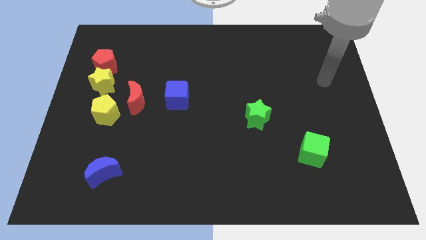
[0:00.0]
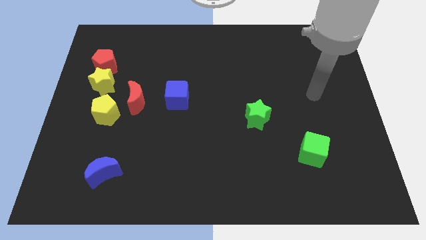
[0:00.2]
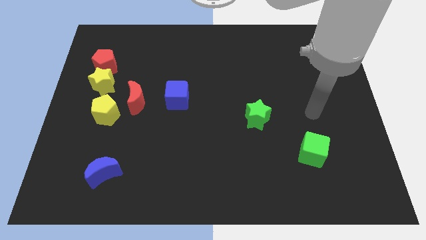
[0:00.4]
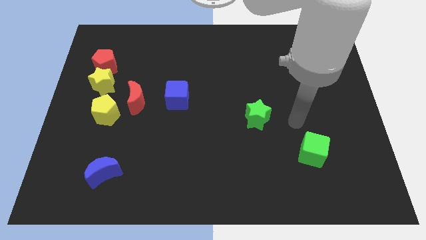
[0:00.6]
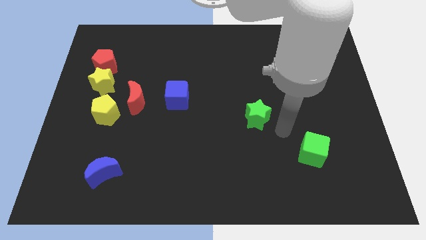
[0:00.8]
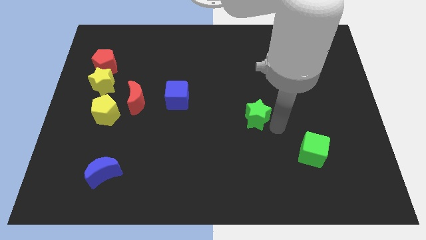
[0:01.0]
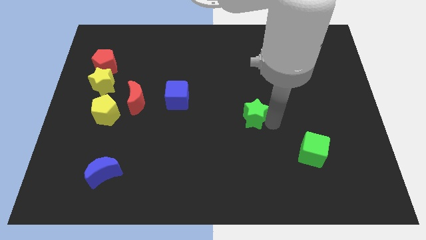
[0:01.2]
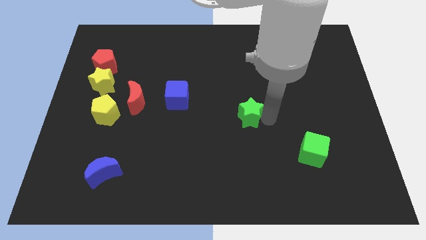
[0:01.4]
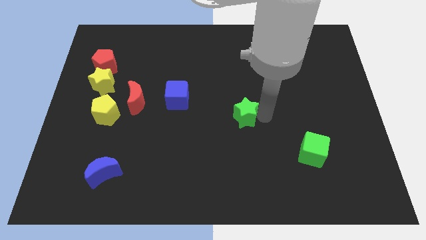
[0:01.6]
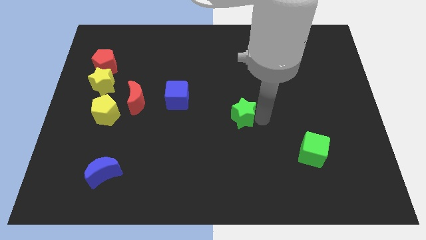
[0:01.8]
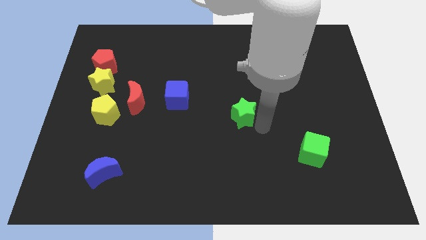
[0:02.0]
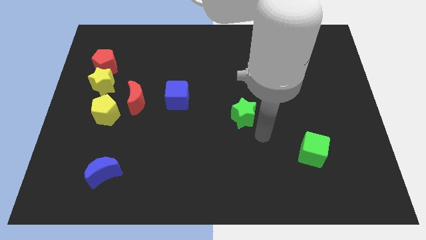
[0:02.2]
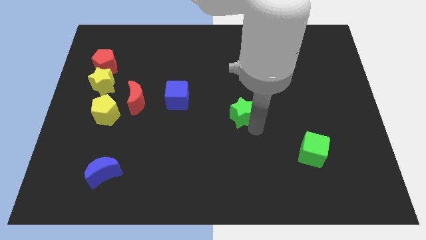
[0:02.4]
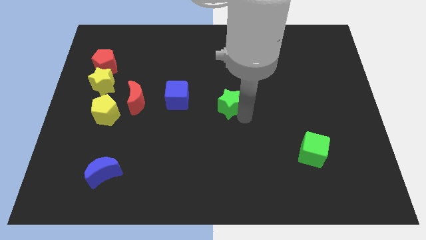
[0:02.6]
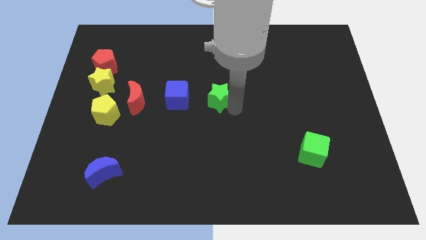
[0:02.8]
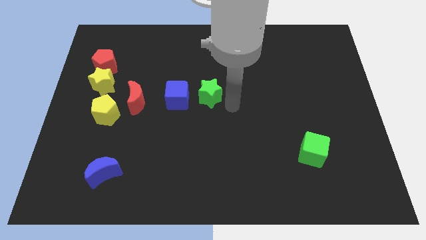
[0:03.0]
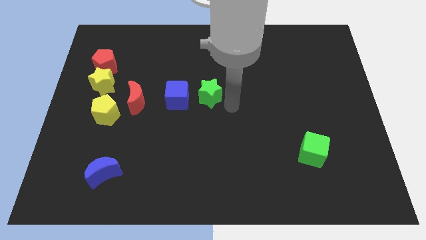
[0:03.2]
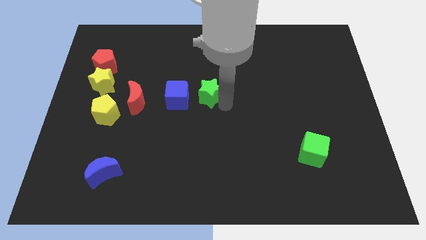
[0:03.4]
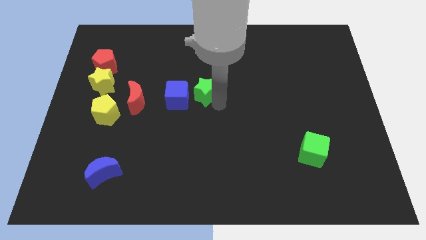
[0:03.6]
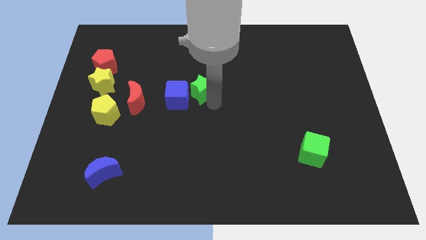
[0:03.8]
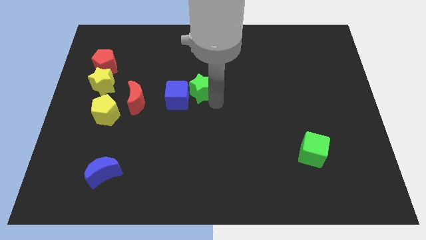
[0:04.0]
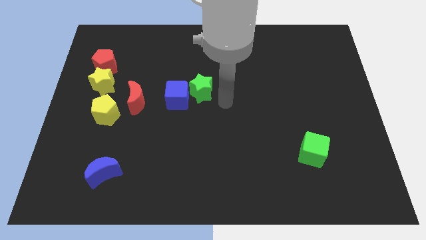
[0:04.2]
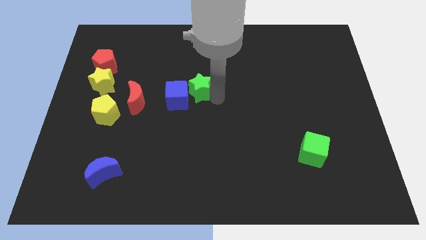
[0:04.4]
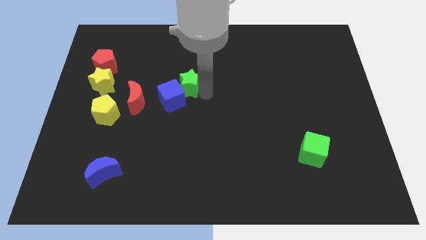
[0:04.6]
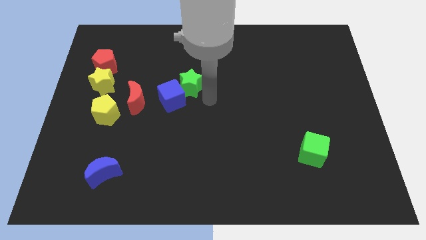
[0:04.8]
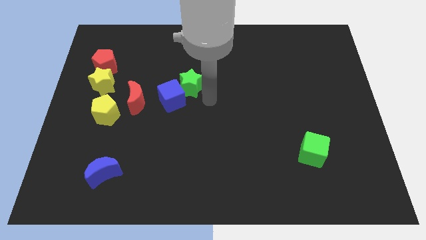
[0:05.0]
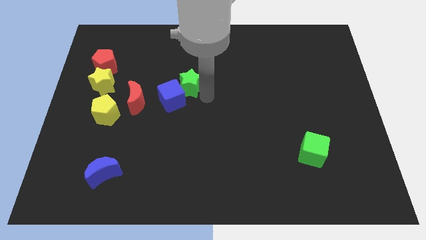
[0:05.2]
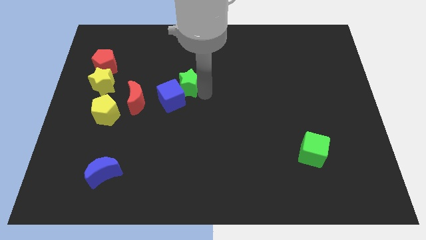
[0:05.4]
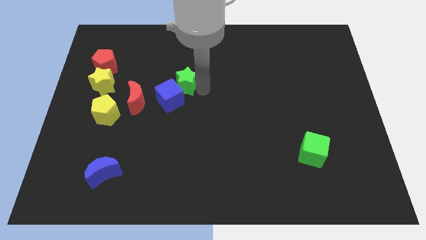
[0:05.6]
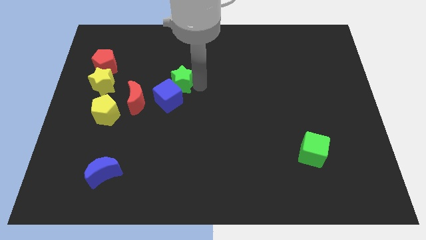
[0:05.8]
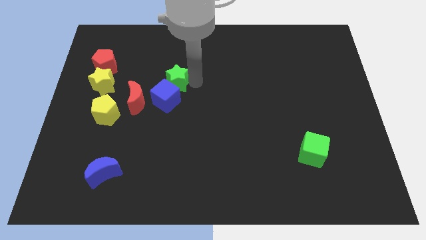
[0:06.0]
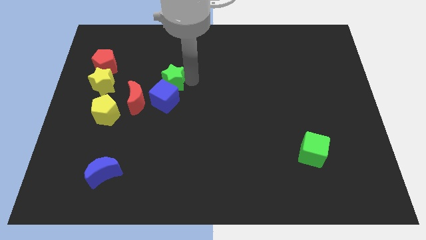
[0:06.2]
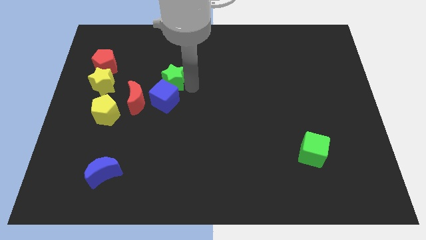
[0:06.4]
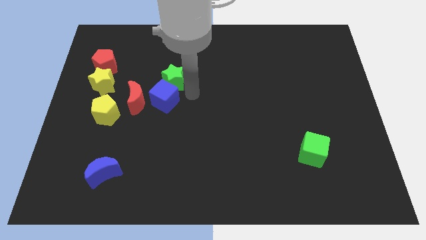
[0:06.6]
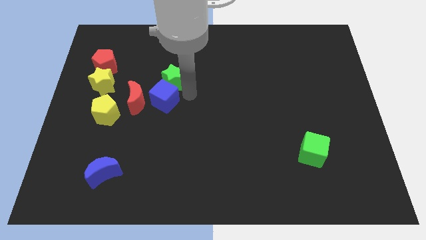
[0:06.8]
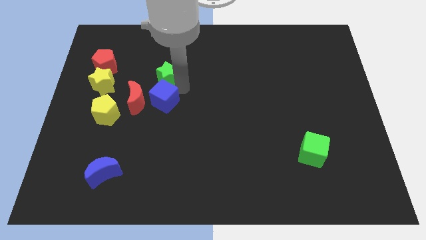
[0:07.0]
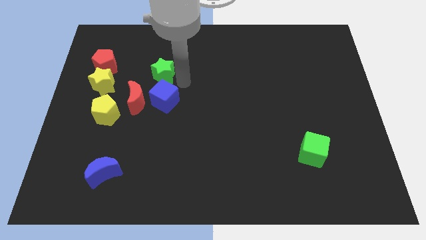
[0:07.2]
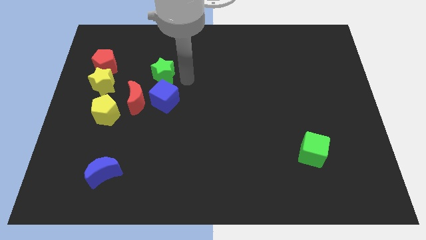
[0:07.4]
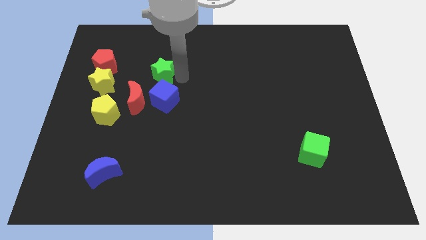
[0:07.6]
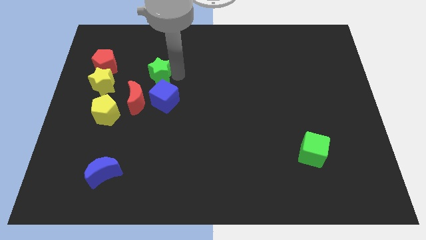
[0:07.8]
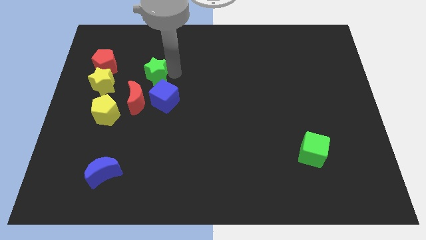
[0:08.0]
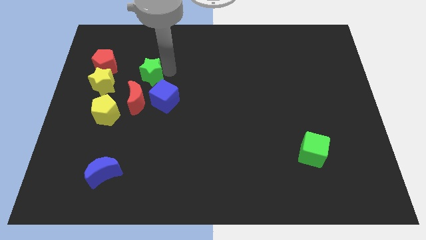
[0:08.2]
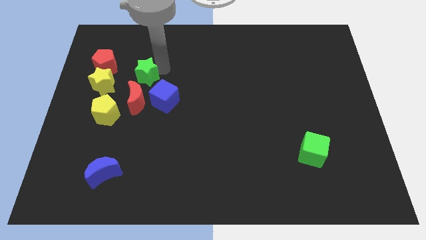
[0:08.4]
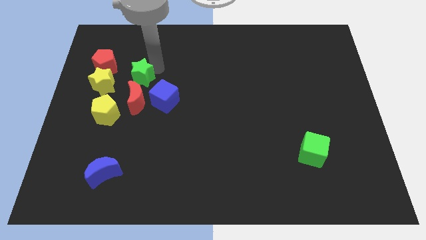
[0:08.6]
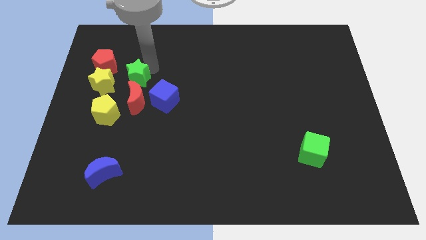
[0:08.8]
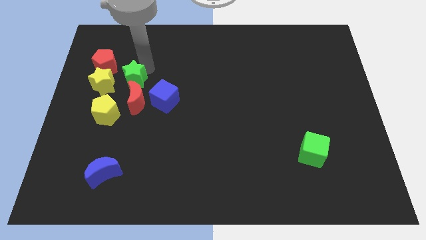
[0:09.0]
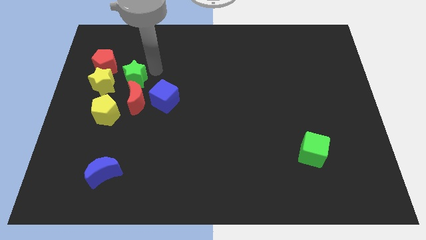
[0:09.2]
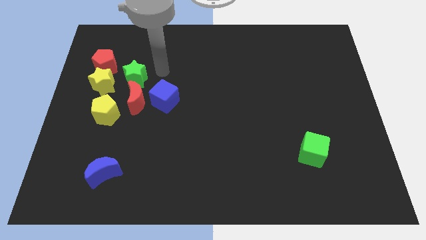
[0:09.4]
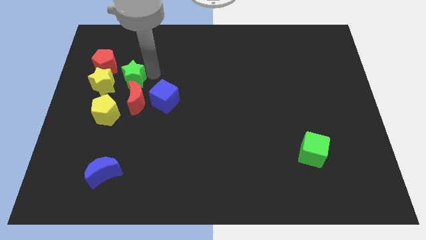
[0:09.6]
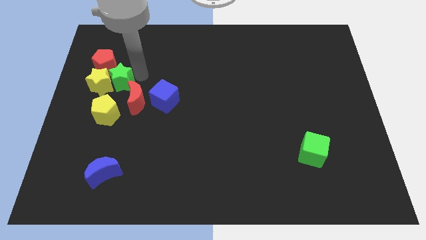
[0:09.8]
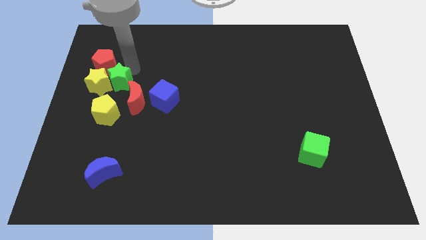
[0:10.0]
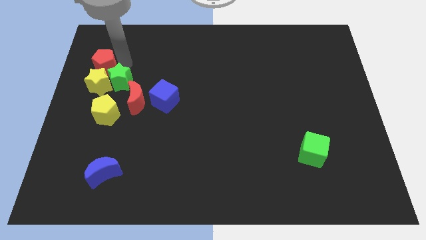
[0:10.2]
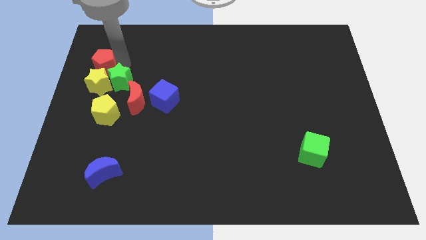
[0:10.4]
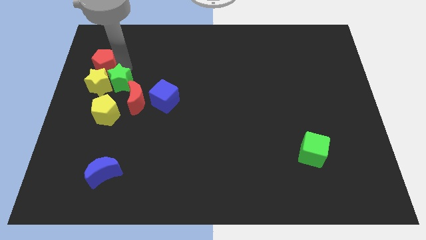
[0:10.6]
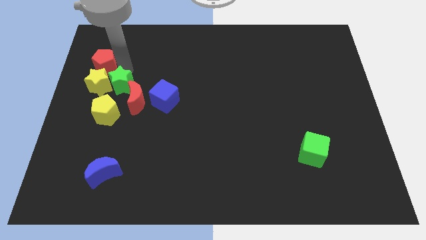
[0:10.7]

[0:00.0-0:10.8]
move the green star to the left side of the blue cube

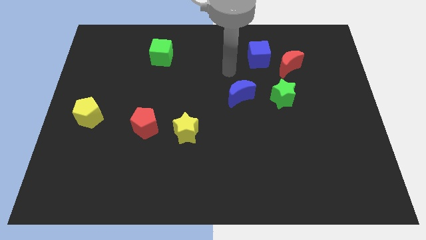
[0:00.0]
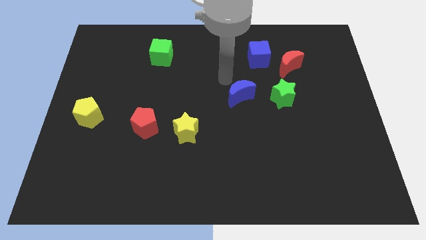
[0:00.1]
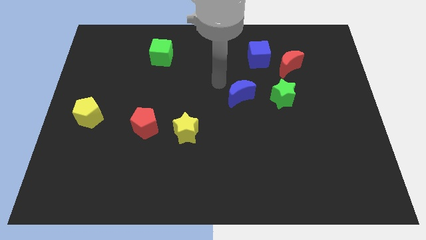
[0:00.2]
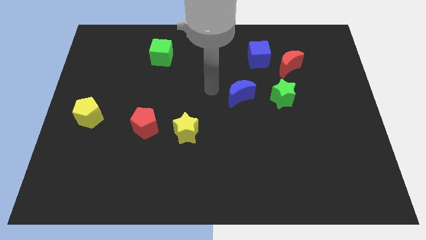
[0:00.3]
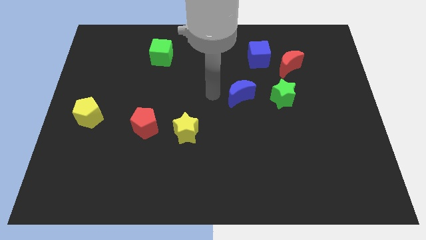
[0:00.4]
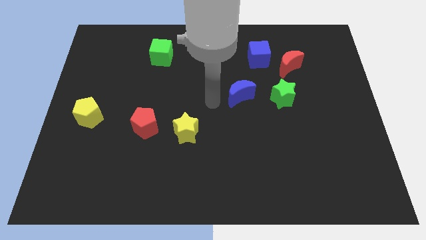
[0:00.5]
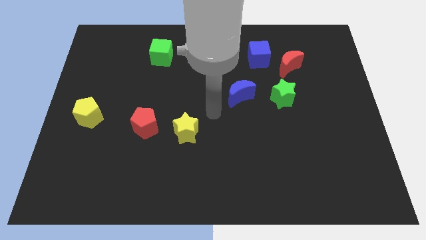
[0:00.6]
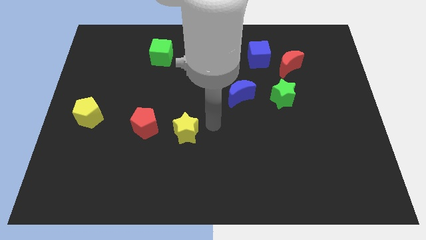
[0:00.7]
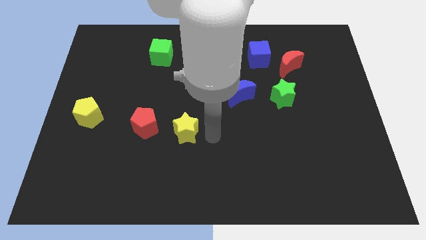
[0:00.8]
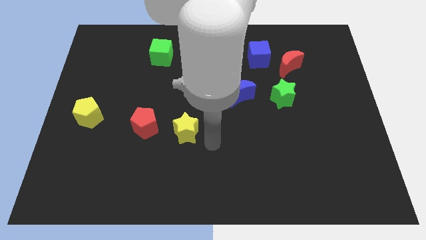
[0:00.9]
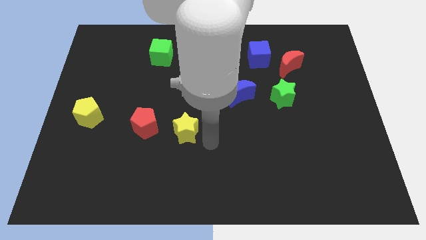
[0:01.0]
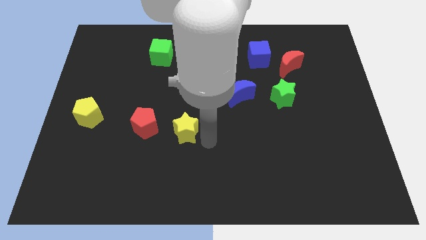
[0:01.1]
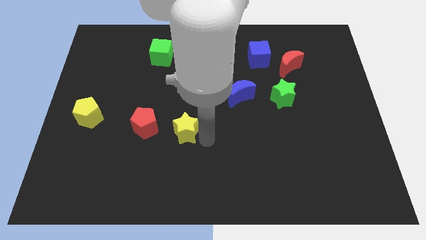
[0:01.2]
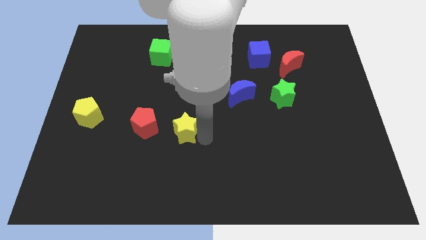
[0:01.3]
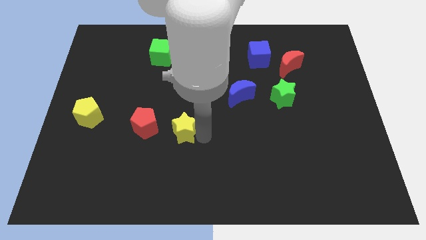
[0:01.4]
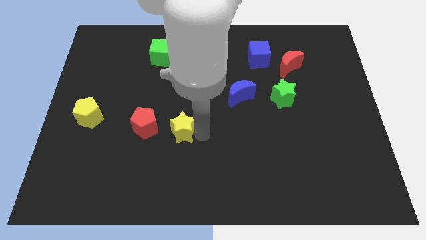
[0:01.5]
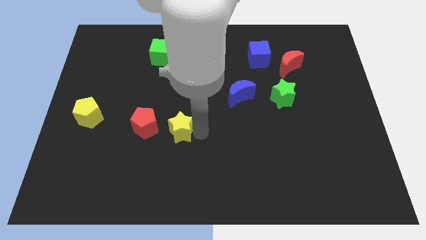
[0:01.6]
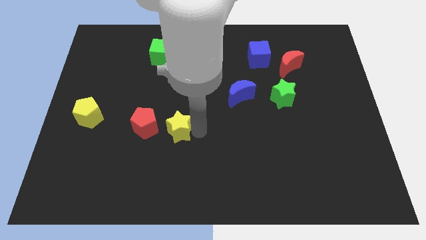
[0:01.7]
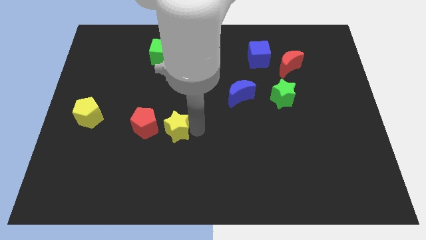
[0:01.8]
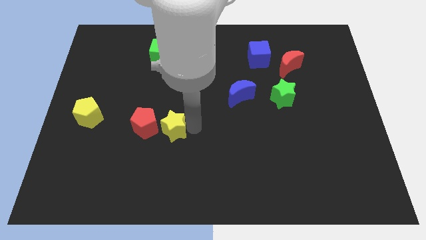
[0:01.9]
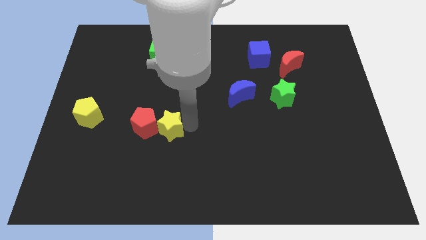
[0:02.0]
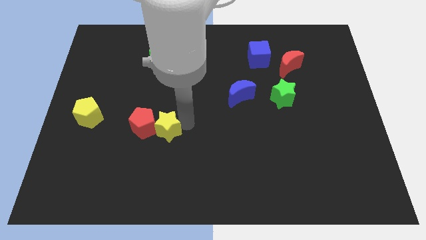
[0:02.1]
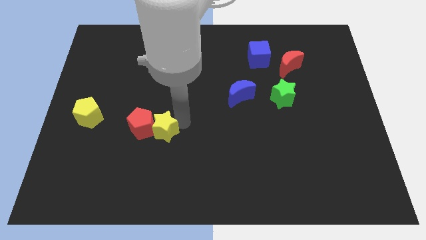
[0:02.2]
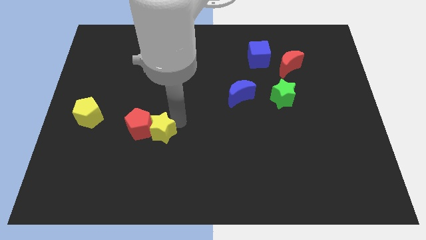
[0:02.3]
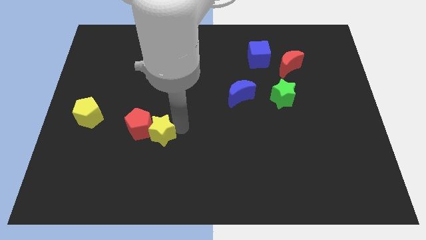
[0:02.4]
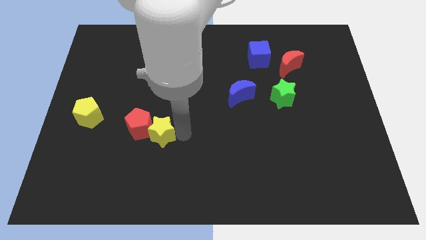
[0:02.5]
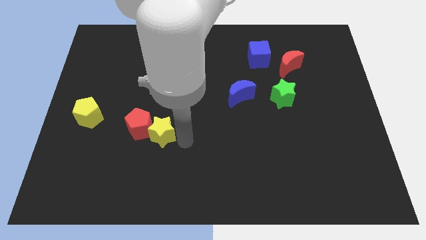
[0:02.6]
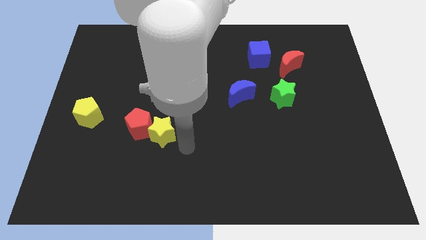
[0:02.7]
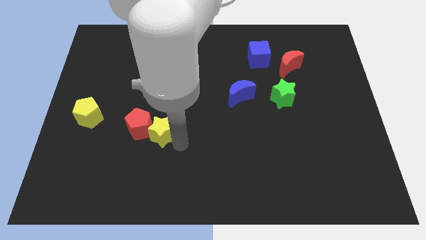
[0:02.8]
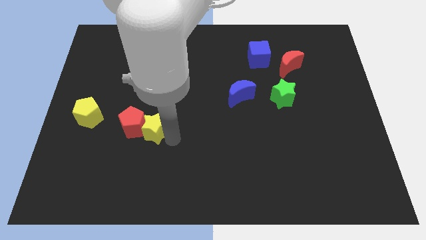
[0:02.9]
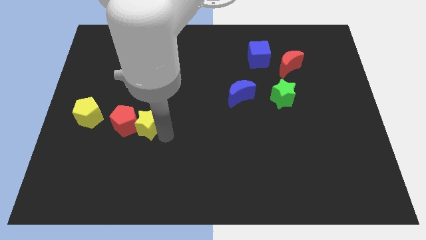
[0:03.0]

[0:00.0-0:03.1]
push the yellow star just right of the yellow pentagon
